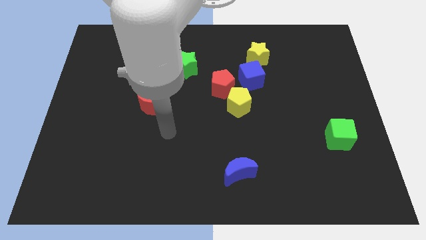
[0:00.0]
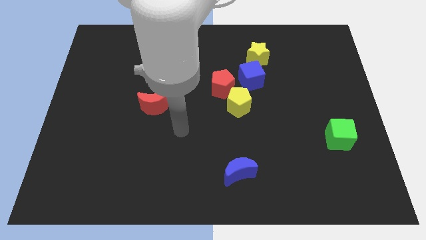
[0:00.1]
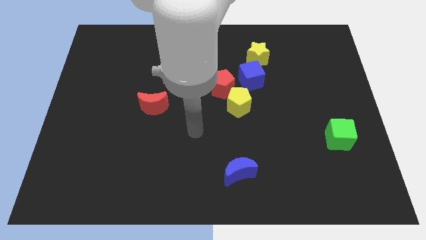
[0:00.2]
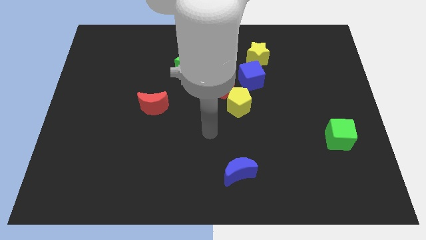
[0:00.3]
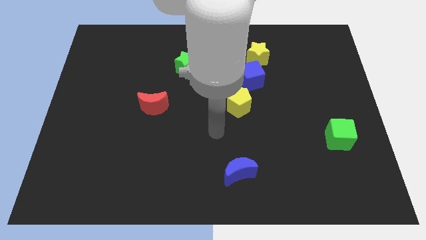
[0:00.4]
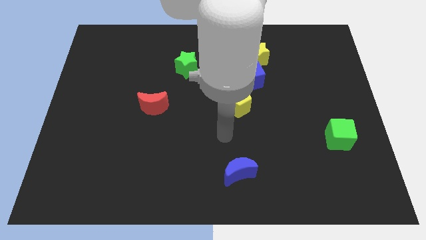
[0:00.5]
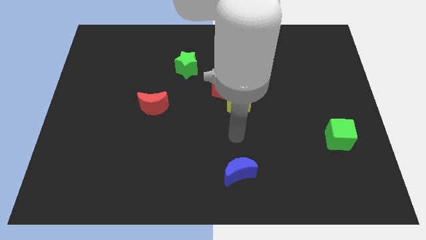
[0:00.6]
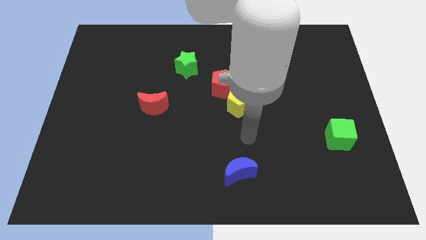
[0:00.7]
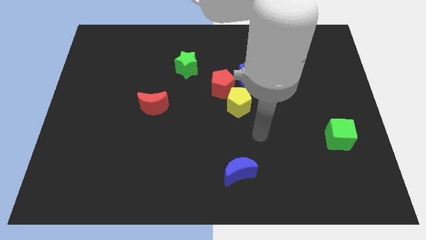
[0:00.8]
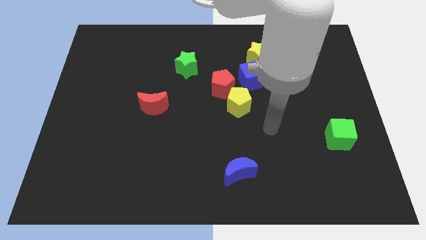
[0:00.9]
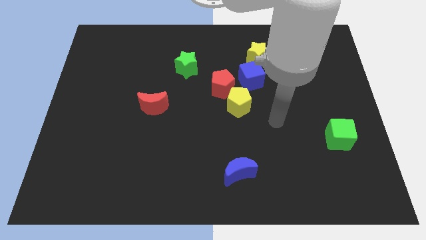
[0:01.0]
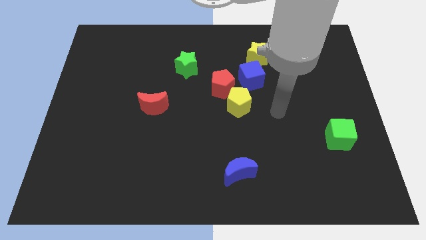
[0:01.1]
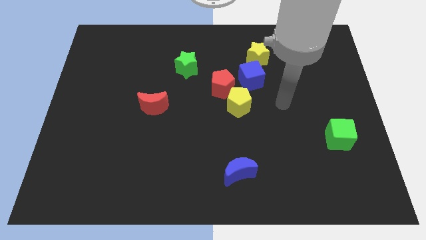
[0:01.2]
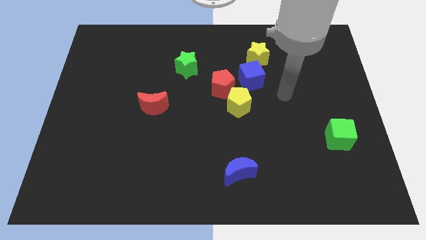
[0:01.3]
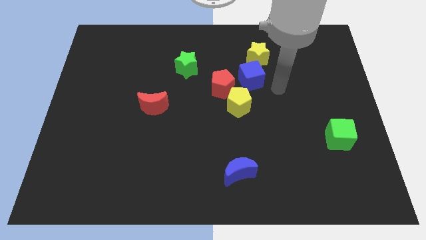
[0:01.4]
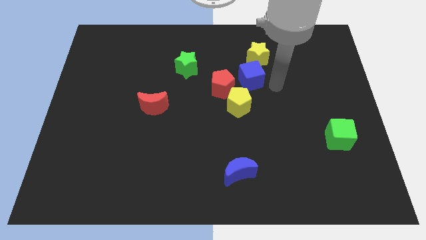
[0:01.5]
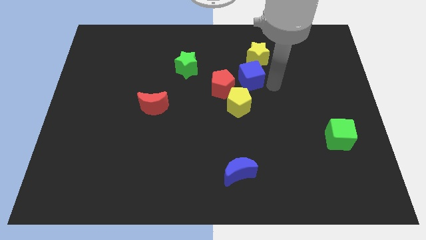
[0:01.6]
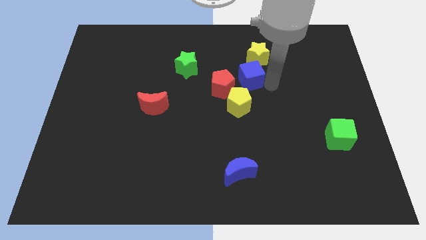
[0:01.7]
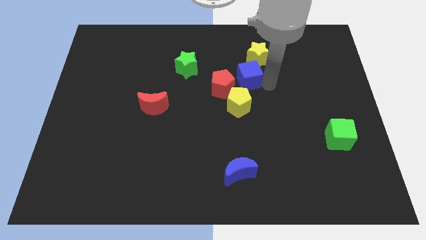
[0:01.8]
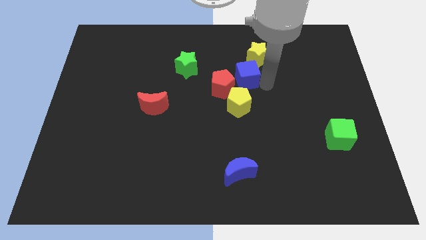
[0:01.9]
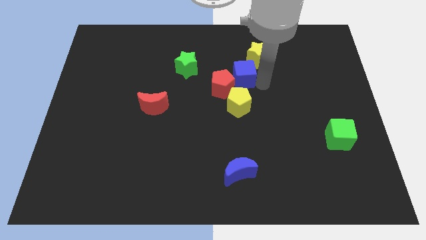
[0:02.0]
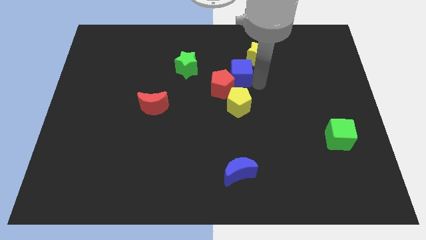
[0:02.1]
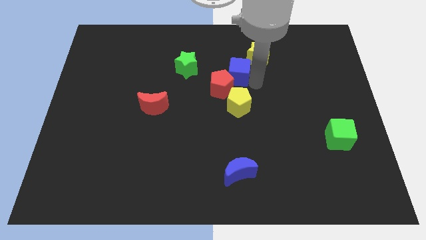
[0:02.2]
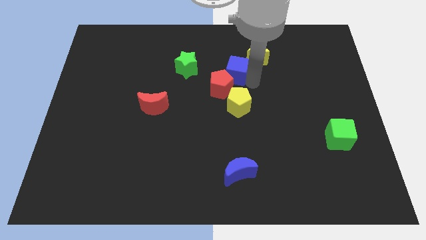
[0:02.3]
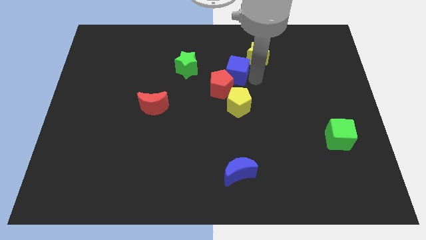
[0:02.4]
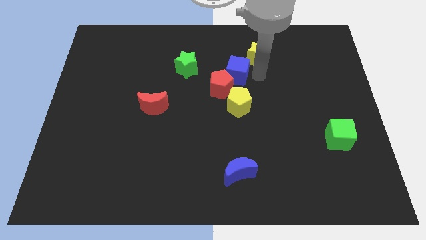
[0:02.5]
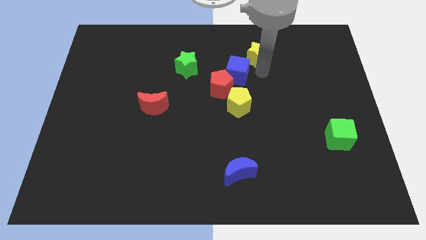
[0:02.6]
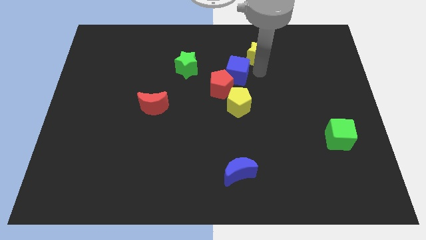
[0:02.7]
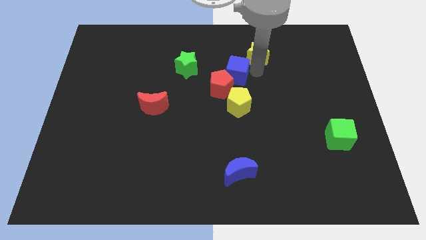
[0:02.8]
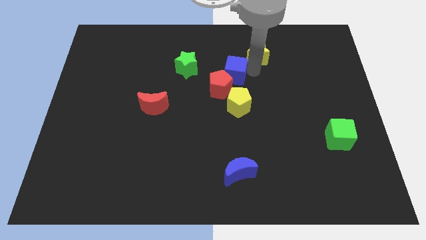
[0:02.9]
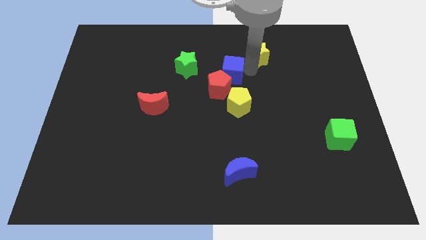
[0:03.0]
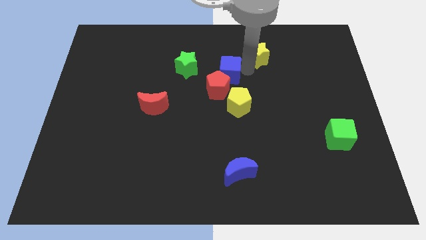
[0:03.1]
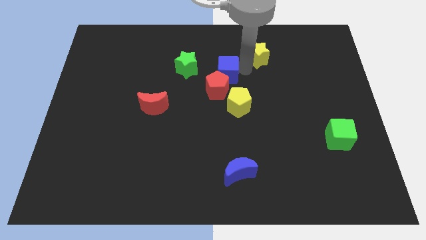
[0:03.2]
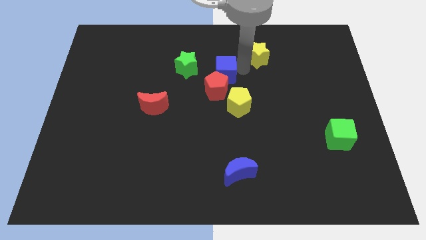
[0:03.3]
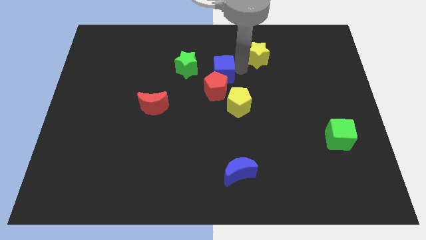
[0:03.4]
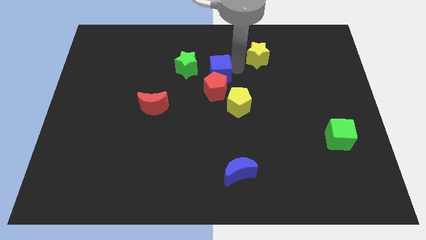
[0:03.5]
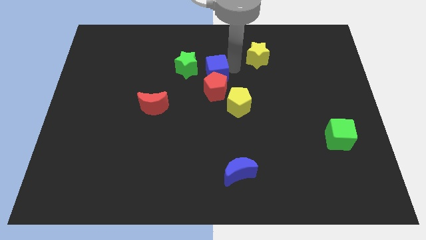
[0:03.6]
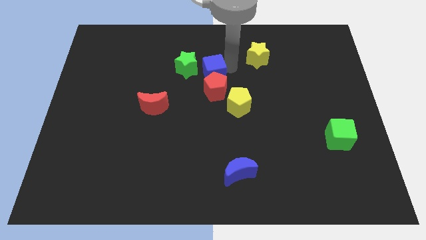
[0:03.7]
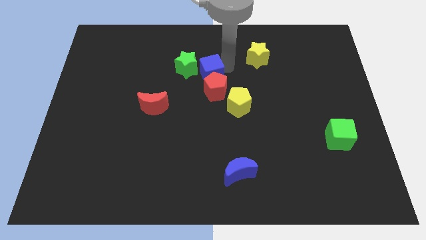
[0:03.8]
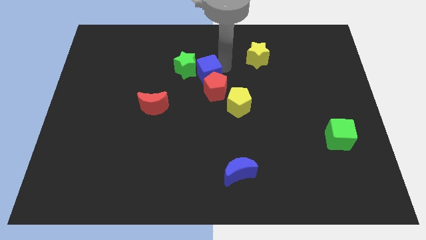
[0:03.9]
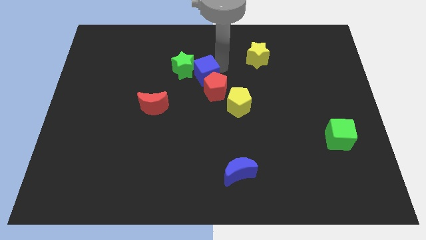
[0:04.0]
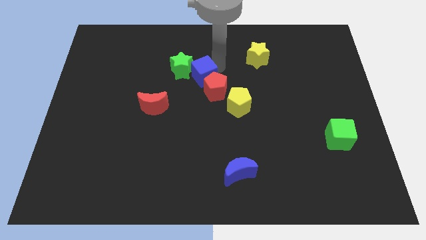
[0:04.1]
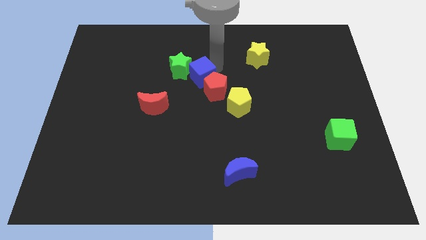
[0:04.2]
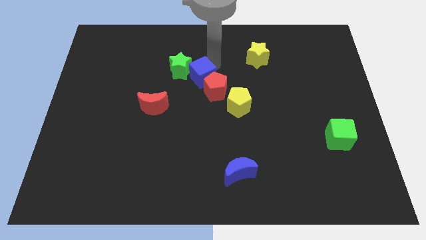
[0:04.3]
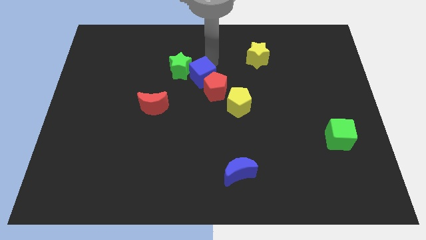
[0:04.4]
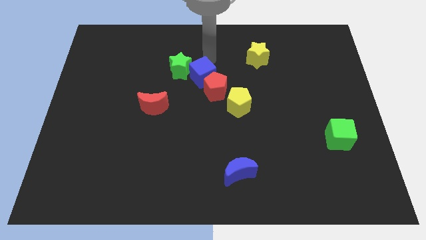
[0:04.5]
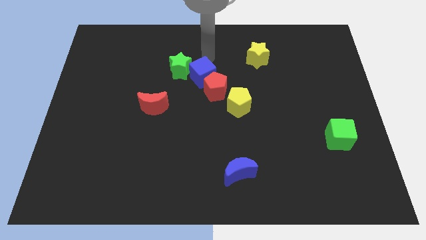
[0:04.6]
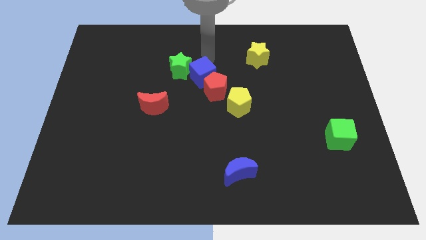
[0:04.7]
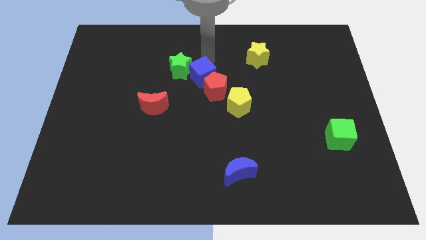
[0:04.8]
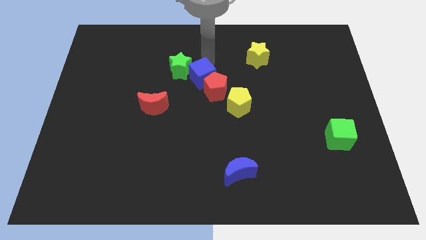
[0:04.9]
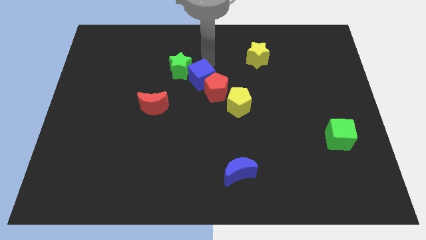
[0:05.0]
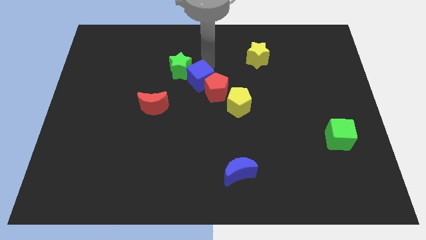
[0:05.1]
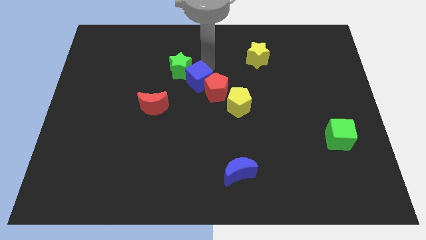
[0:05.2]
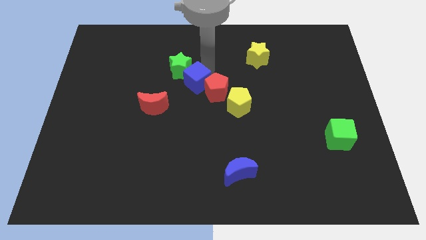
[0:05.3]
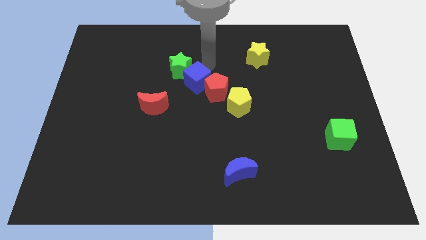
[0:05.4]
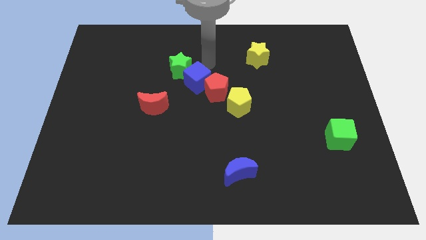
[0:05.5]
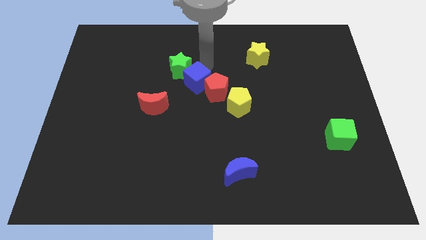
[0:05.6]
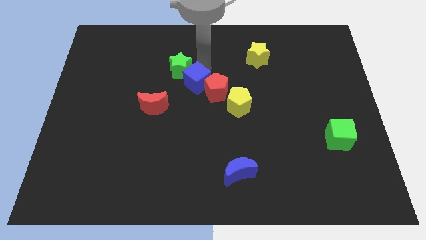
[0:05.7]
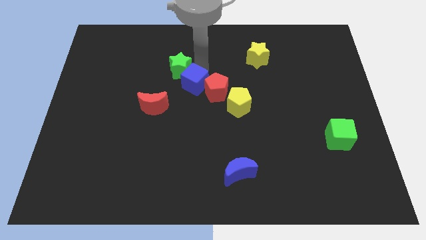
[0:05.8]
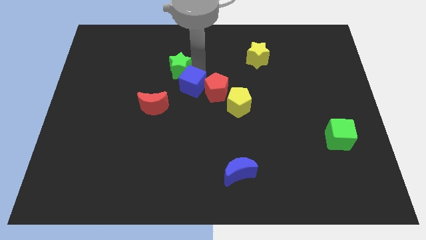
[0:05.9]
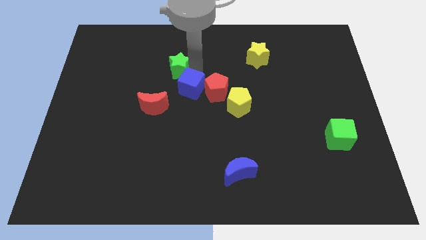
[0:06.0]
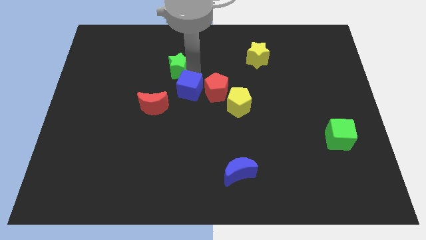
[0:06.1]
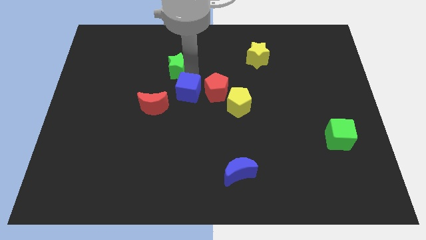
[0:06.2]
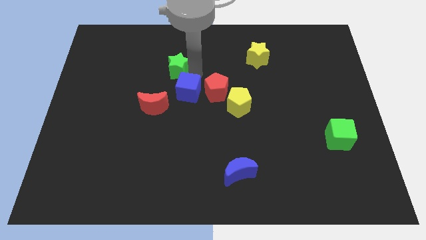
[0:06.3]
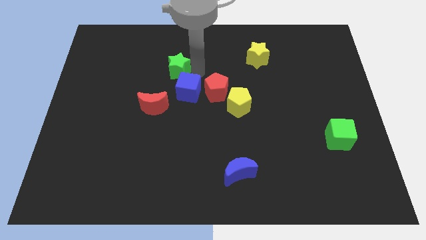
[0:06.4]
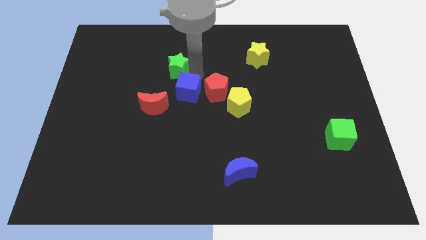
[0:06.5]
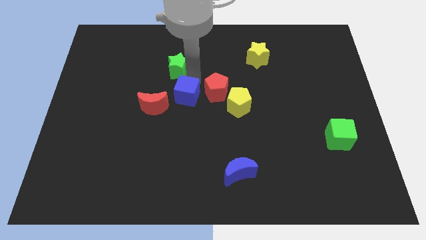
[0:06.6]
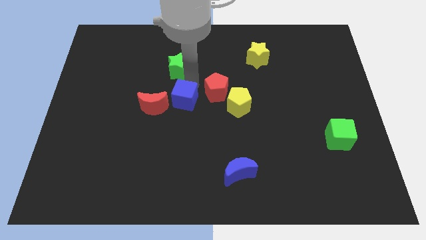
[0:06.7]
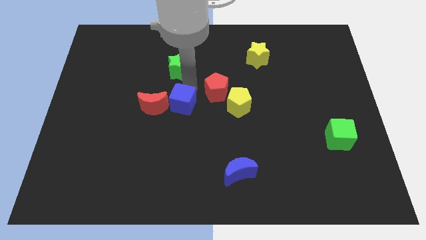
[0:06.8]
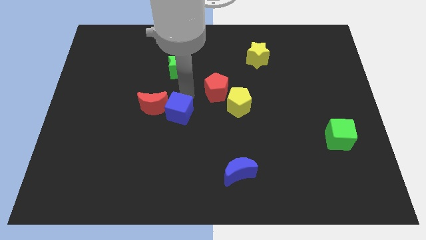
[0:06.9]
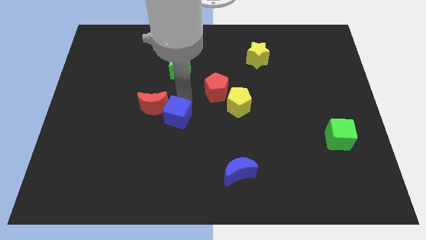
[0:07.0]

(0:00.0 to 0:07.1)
push the blue cube diagonally down and to the left

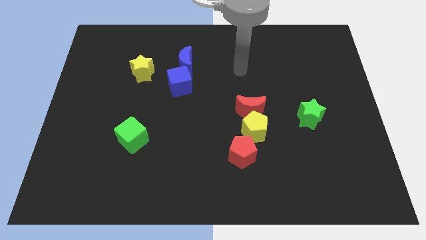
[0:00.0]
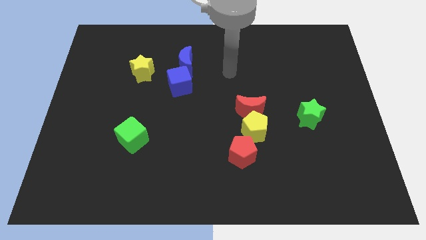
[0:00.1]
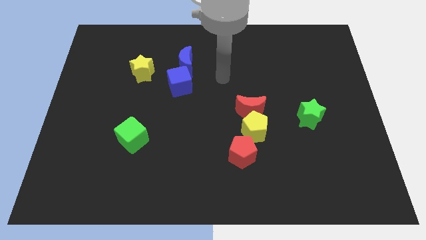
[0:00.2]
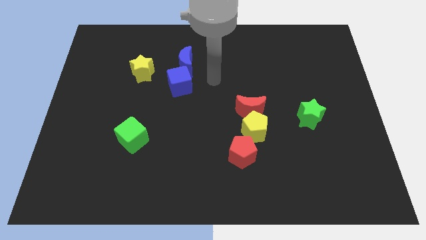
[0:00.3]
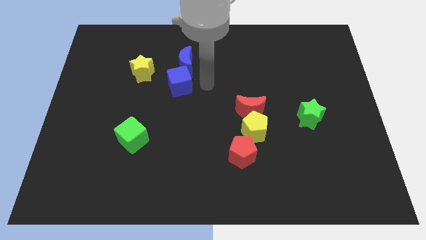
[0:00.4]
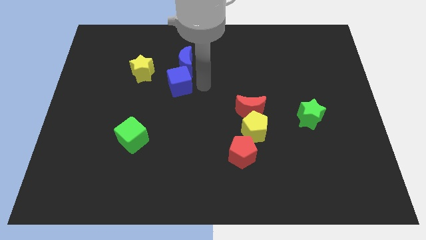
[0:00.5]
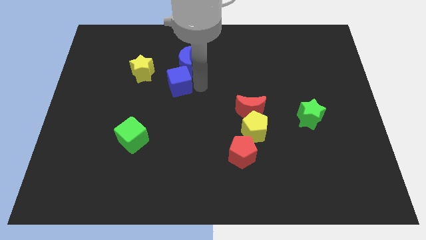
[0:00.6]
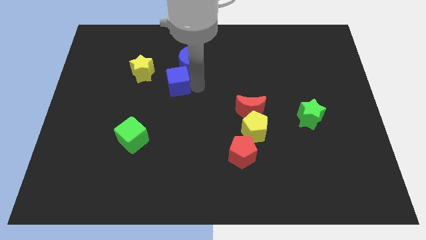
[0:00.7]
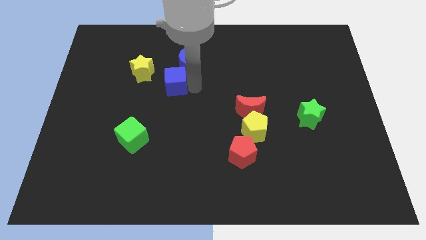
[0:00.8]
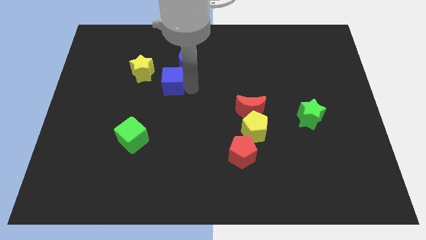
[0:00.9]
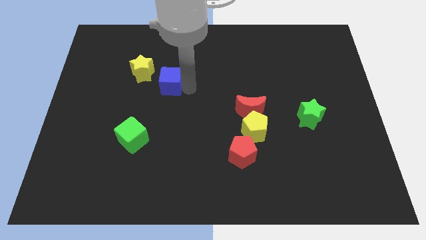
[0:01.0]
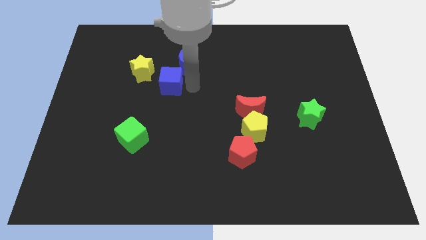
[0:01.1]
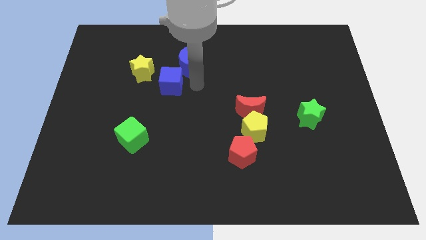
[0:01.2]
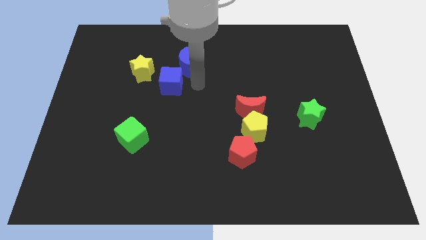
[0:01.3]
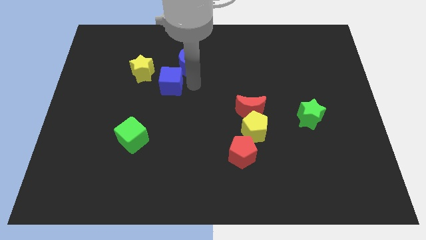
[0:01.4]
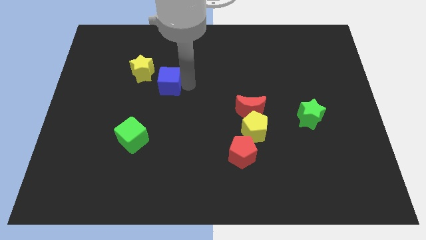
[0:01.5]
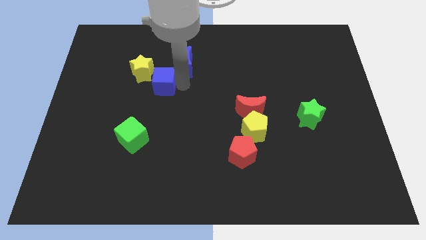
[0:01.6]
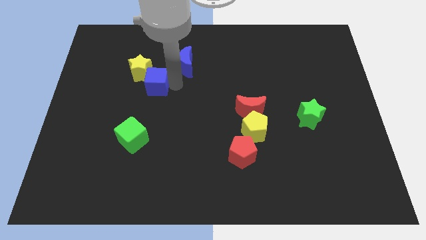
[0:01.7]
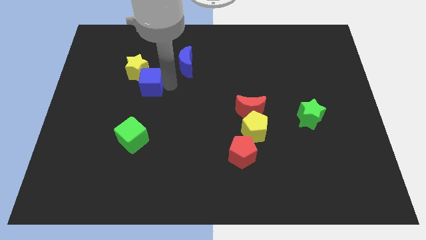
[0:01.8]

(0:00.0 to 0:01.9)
move the blue cube slightly left
